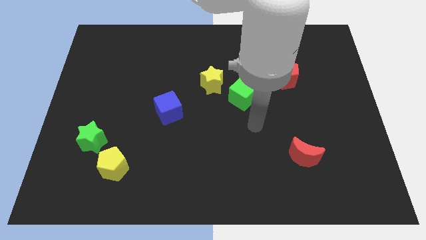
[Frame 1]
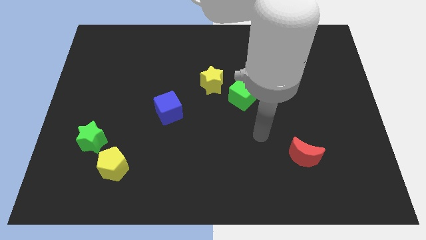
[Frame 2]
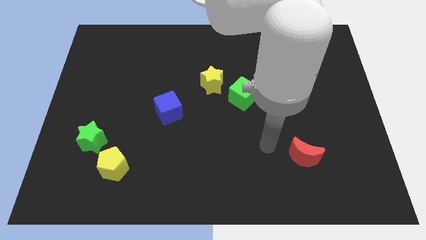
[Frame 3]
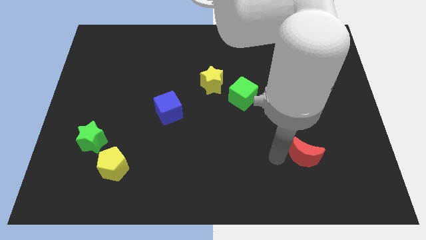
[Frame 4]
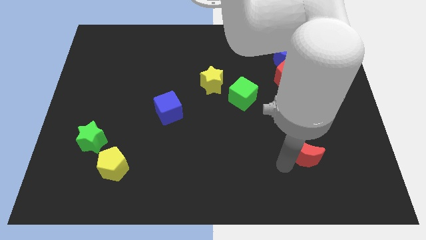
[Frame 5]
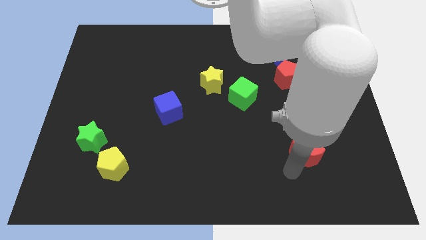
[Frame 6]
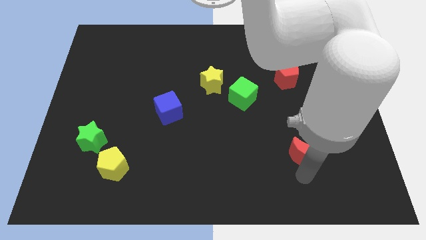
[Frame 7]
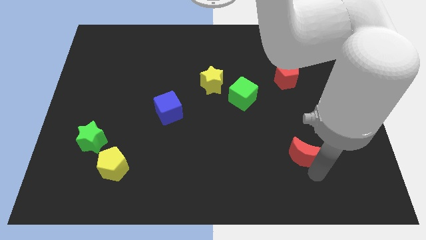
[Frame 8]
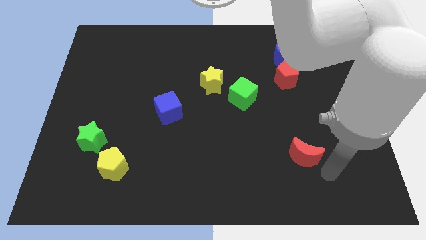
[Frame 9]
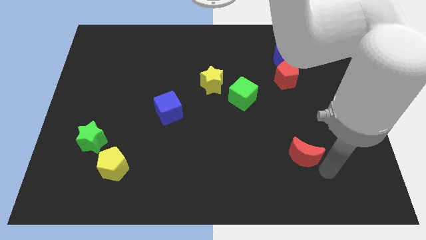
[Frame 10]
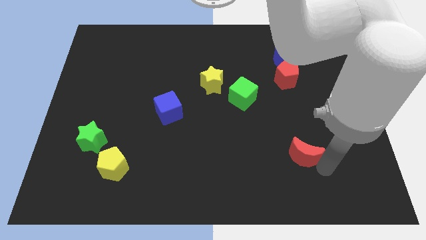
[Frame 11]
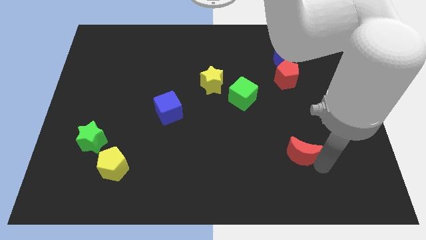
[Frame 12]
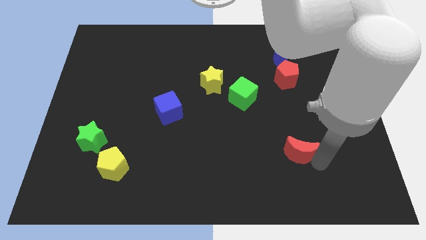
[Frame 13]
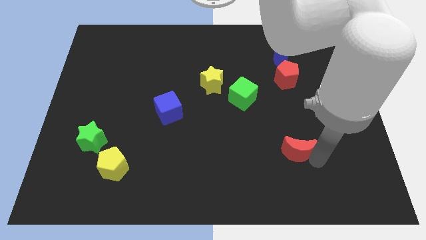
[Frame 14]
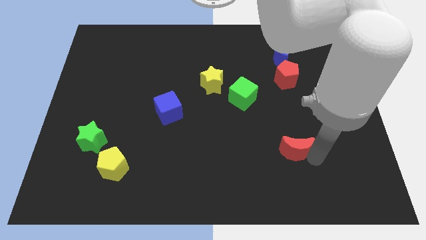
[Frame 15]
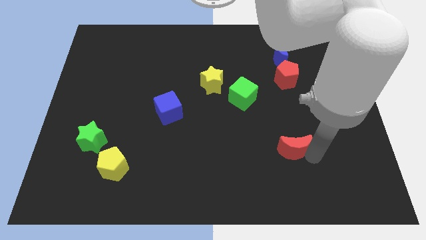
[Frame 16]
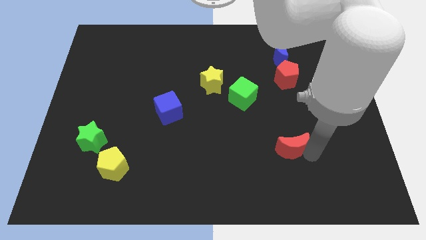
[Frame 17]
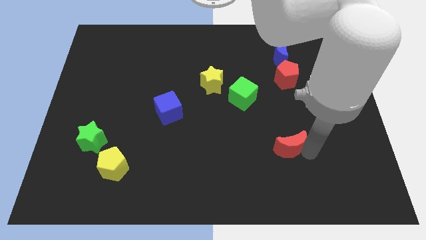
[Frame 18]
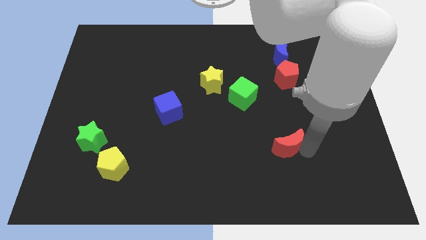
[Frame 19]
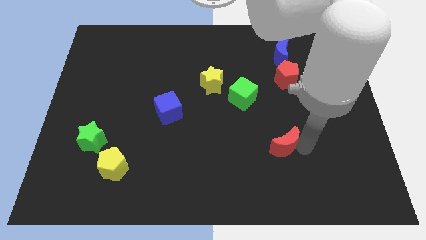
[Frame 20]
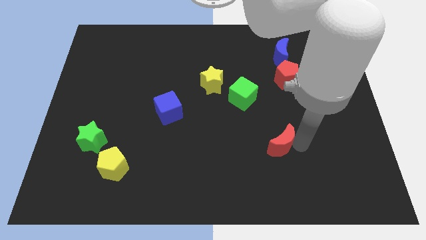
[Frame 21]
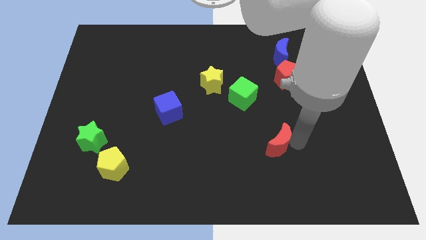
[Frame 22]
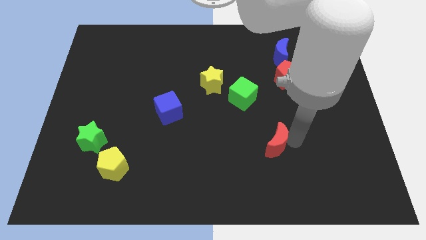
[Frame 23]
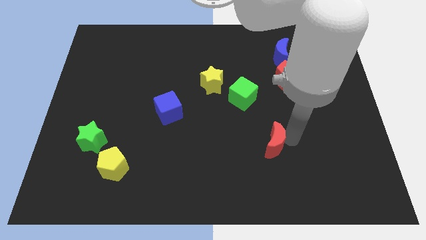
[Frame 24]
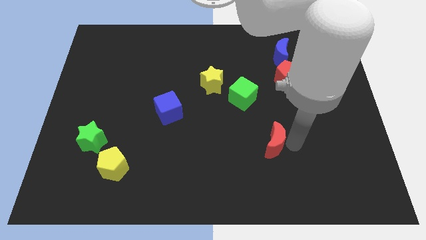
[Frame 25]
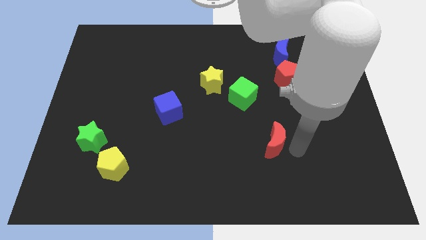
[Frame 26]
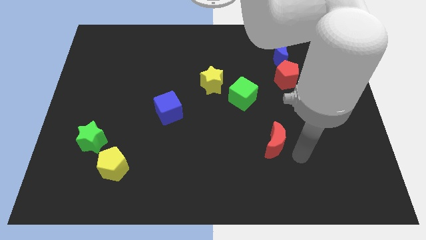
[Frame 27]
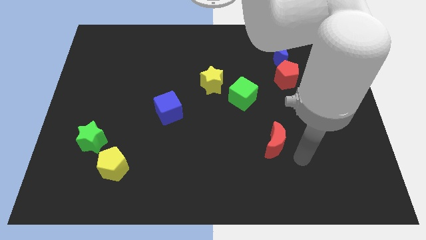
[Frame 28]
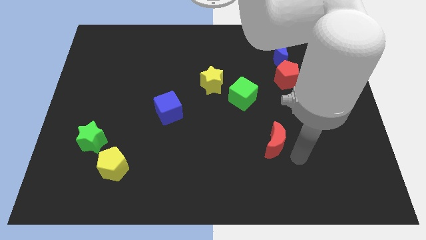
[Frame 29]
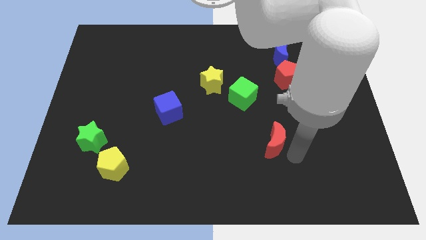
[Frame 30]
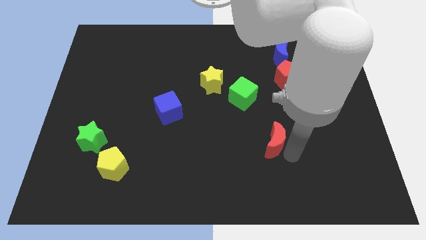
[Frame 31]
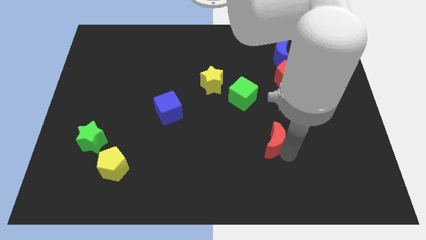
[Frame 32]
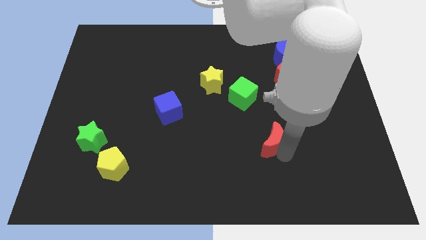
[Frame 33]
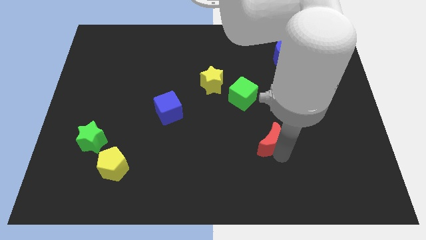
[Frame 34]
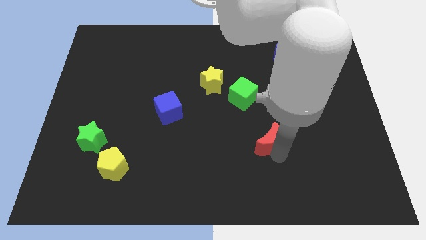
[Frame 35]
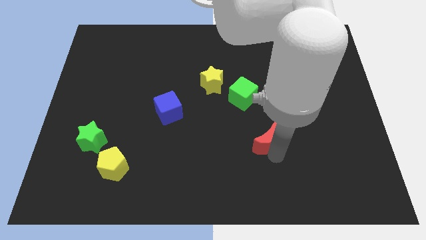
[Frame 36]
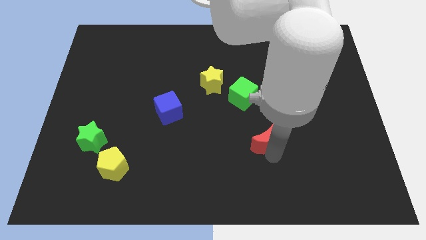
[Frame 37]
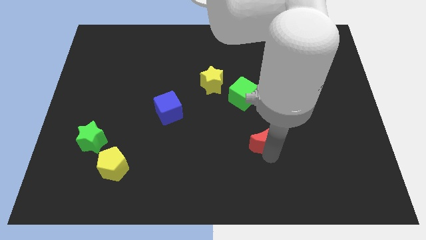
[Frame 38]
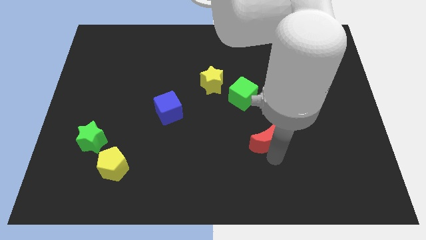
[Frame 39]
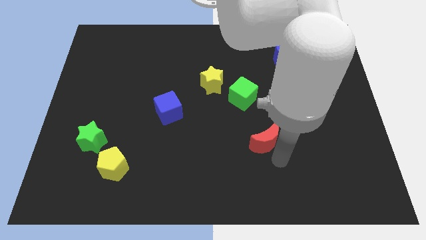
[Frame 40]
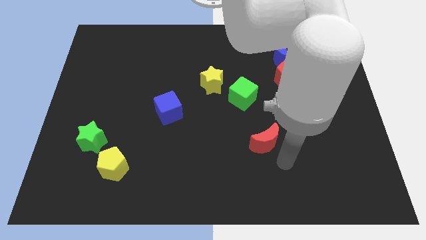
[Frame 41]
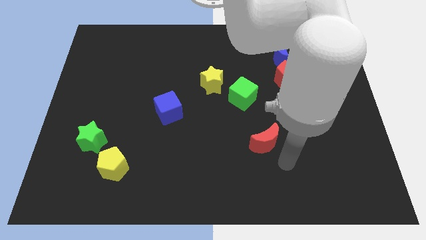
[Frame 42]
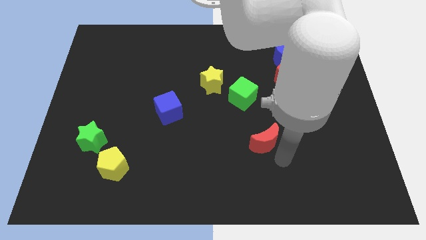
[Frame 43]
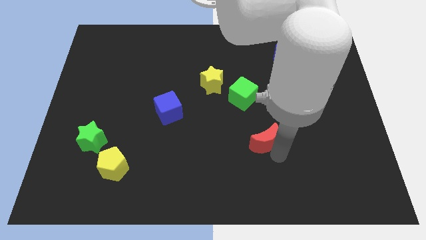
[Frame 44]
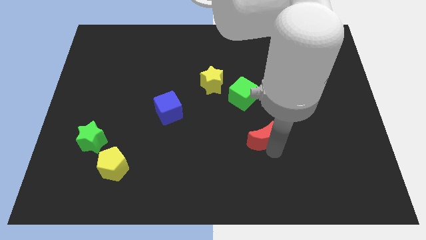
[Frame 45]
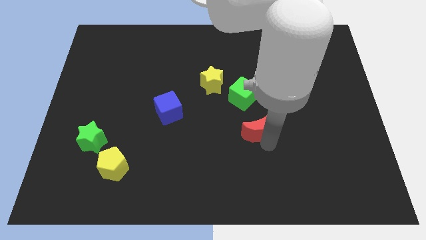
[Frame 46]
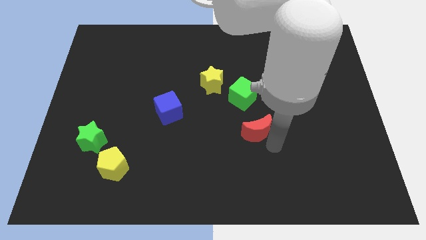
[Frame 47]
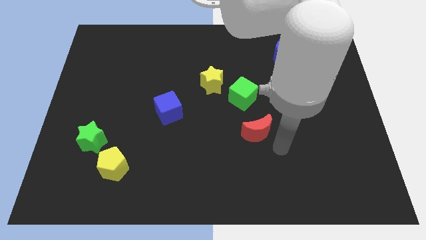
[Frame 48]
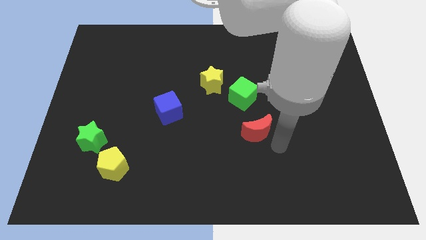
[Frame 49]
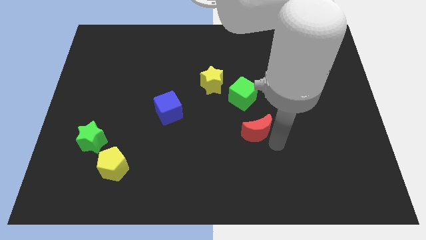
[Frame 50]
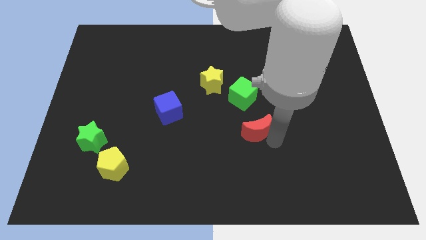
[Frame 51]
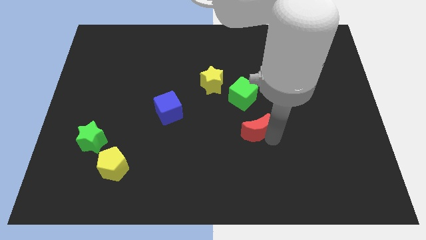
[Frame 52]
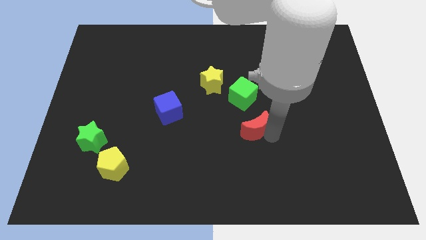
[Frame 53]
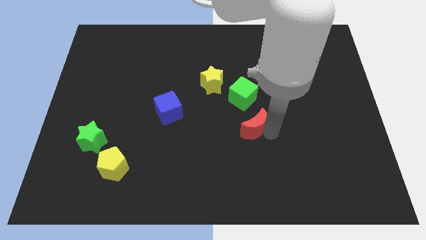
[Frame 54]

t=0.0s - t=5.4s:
move the red moon to the middle

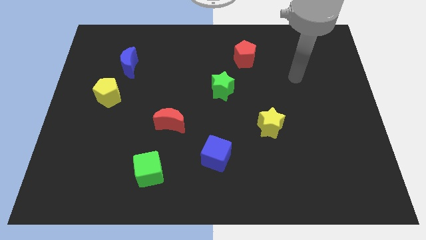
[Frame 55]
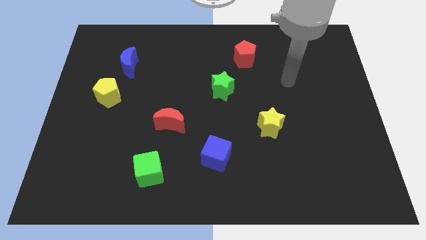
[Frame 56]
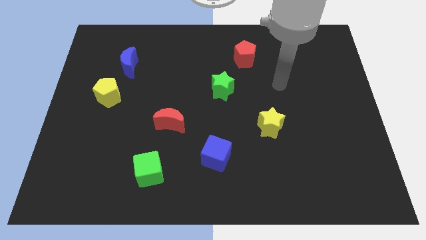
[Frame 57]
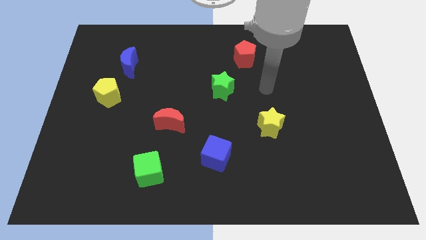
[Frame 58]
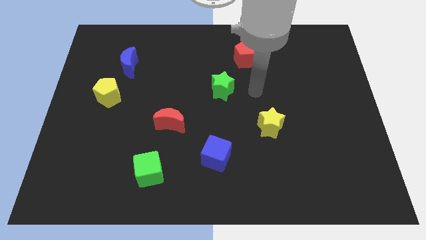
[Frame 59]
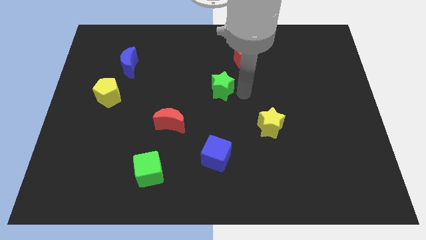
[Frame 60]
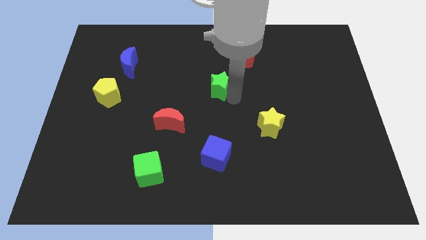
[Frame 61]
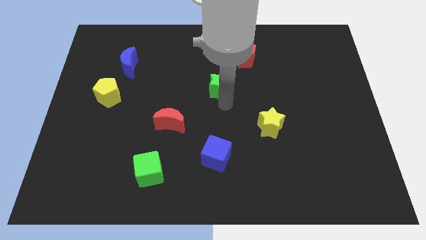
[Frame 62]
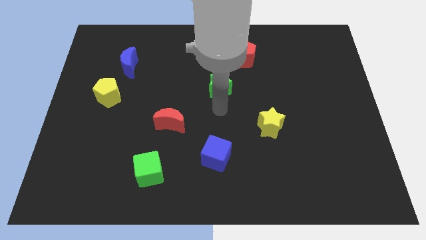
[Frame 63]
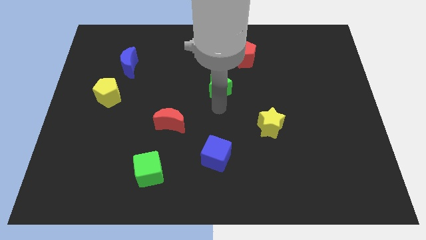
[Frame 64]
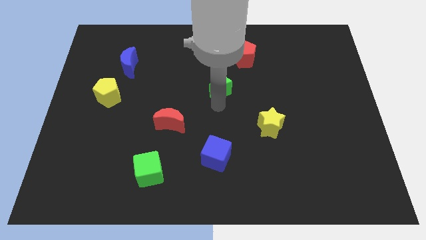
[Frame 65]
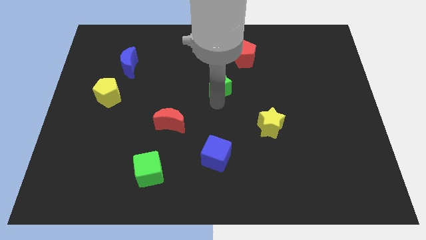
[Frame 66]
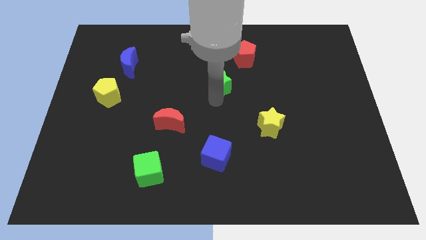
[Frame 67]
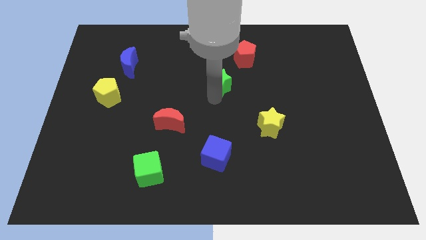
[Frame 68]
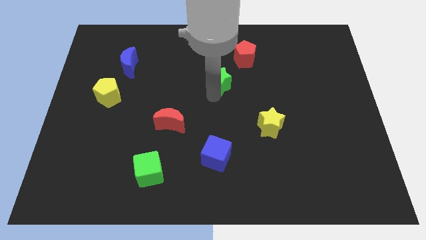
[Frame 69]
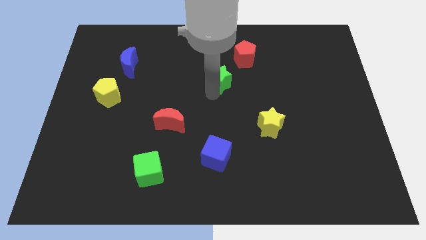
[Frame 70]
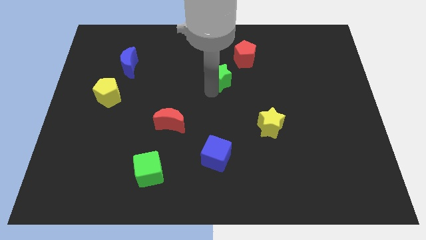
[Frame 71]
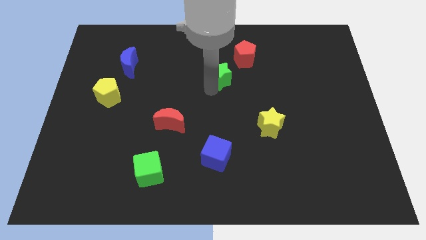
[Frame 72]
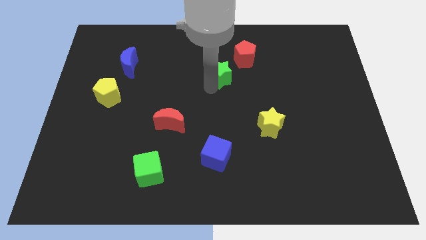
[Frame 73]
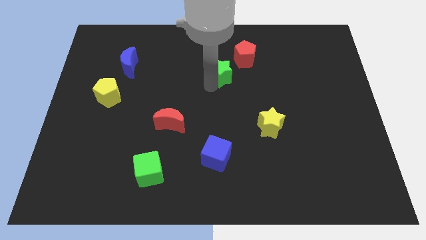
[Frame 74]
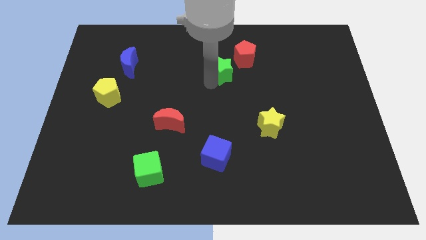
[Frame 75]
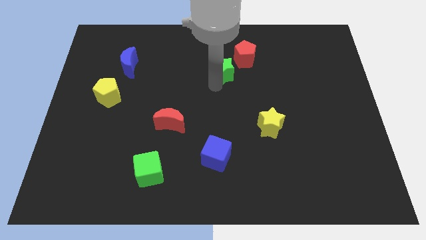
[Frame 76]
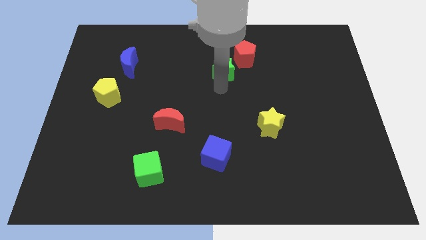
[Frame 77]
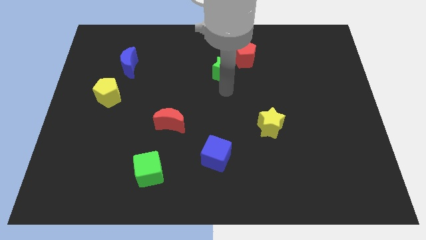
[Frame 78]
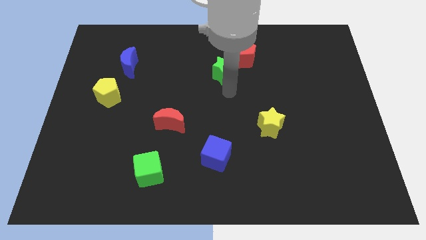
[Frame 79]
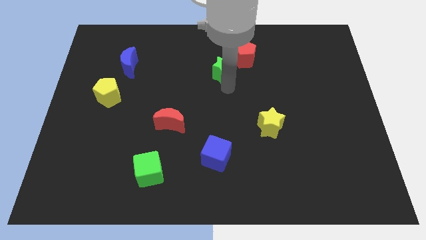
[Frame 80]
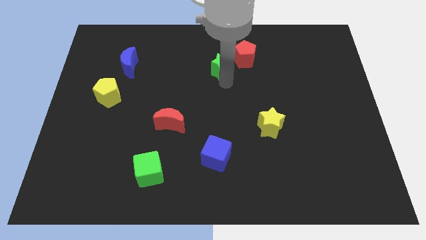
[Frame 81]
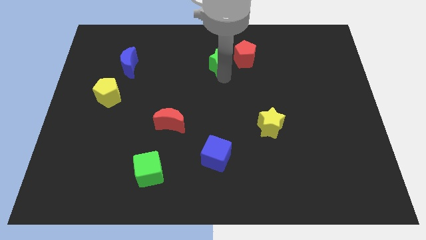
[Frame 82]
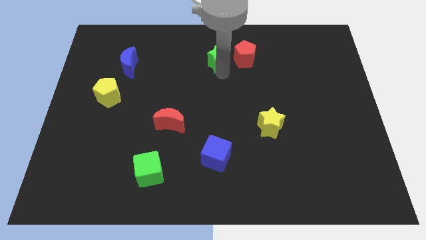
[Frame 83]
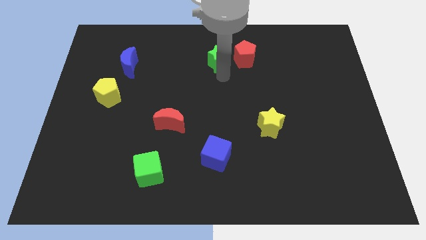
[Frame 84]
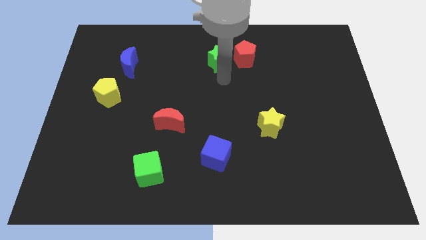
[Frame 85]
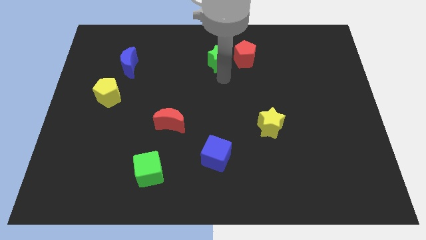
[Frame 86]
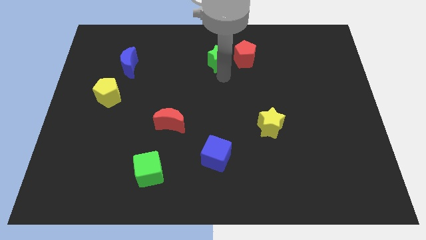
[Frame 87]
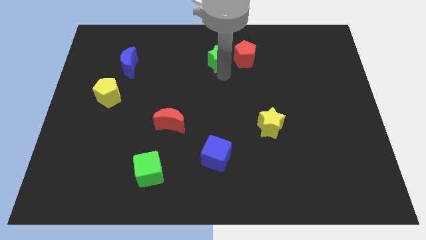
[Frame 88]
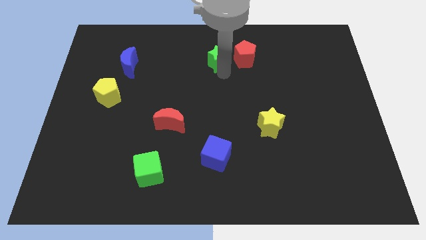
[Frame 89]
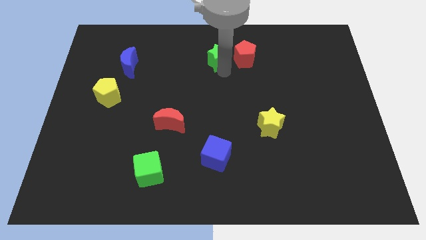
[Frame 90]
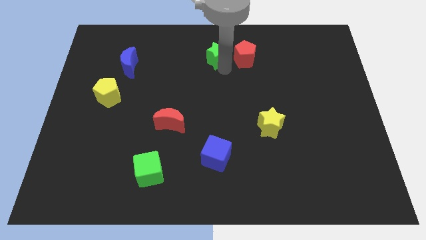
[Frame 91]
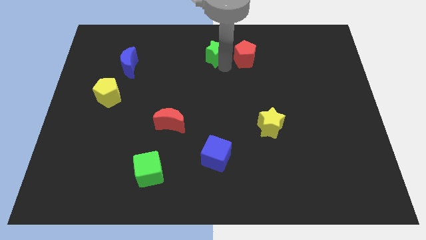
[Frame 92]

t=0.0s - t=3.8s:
slide the green star to the top
